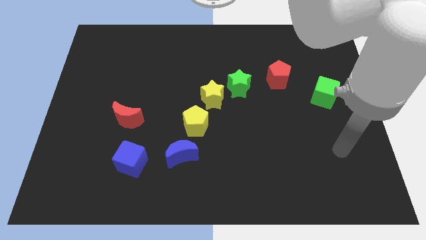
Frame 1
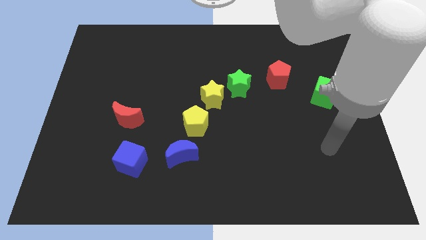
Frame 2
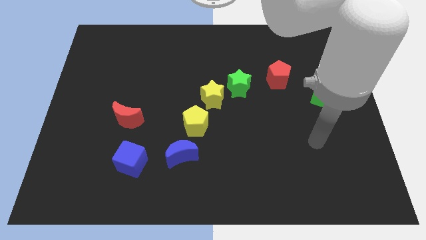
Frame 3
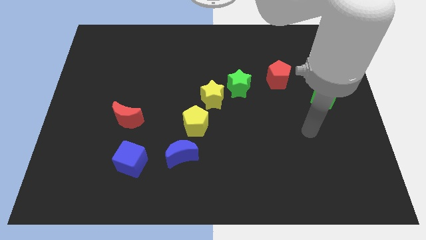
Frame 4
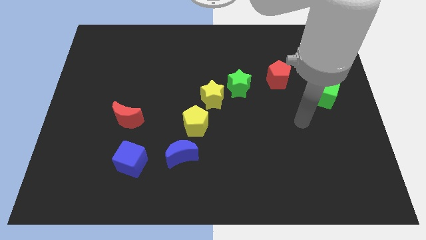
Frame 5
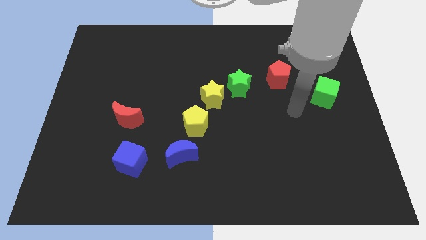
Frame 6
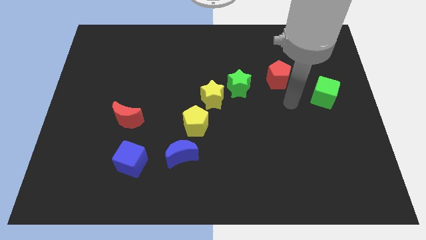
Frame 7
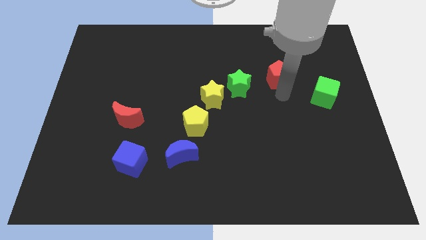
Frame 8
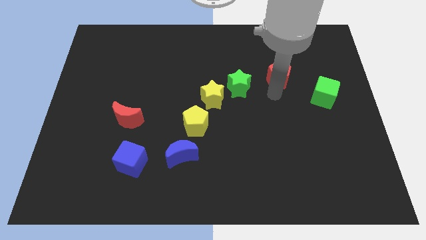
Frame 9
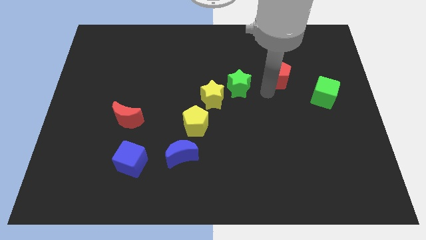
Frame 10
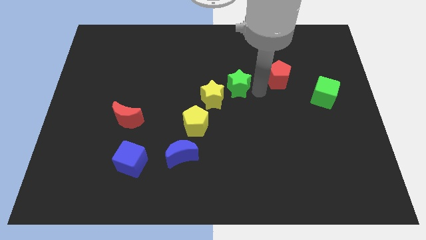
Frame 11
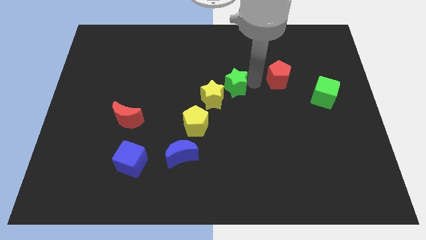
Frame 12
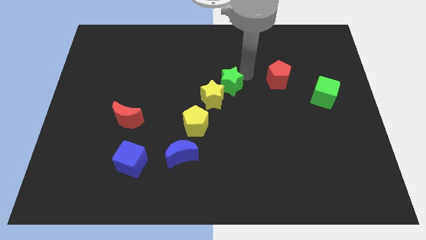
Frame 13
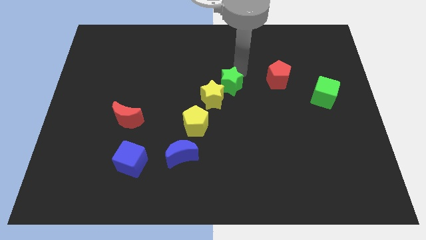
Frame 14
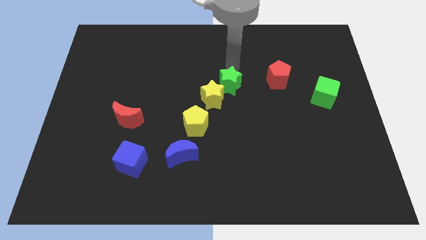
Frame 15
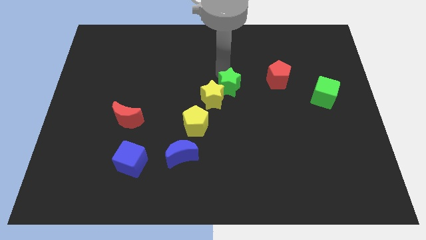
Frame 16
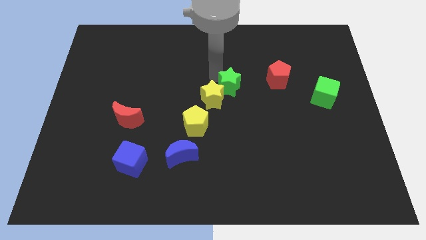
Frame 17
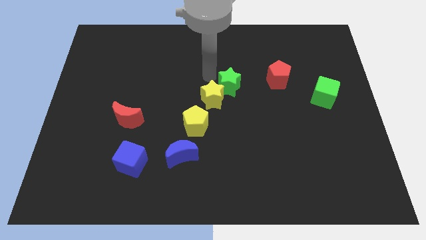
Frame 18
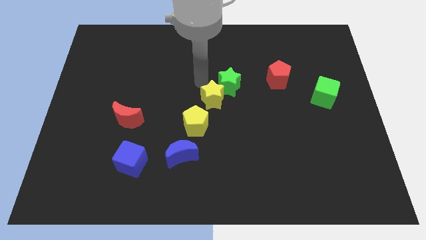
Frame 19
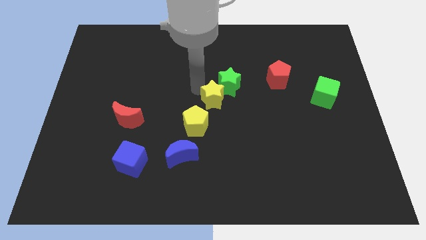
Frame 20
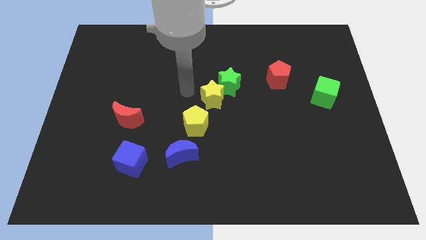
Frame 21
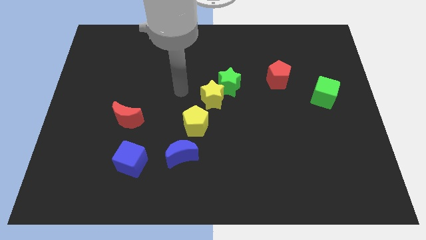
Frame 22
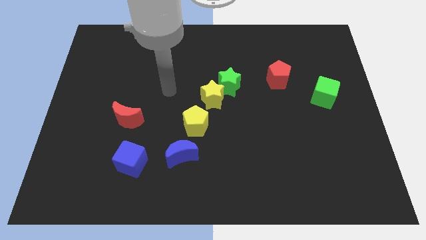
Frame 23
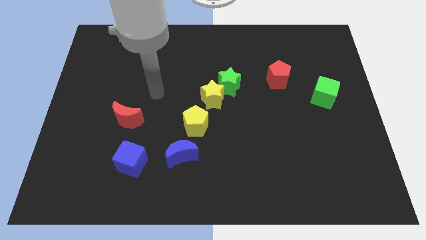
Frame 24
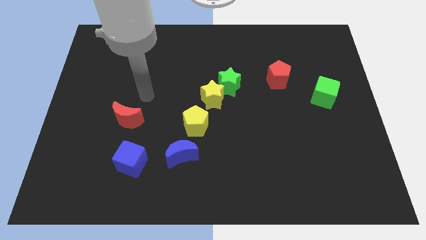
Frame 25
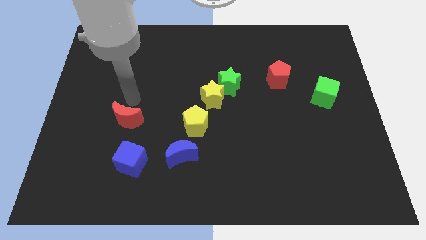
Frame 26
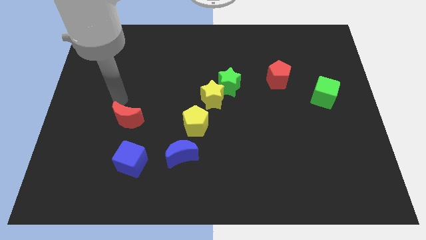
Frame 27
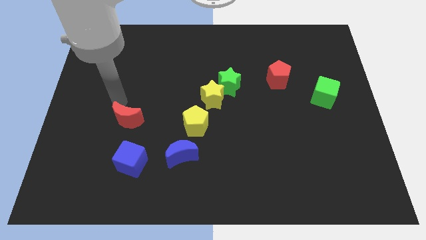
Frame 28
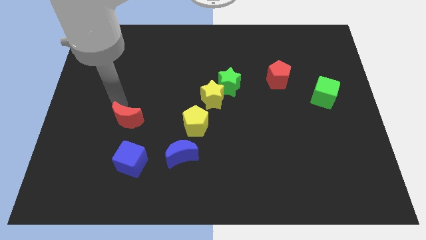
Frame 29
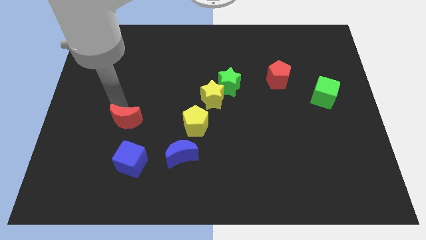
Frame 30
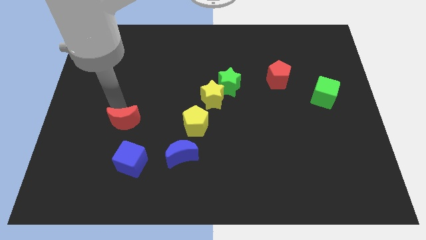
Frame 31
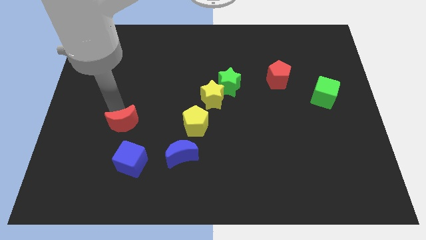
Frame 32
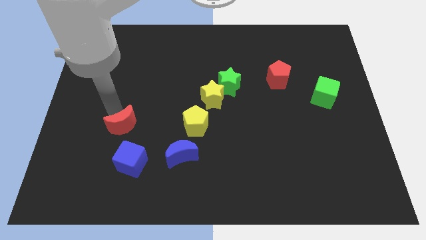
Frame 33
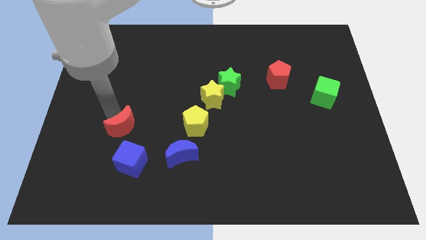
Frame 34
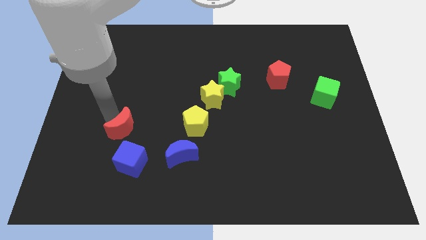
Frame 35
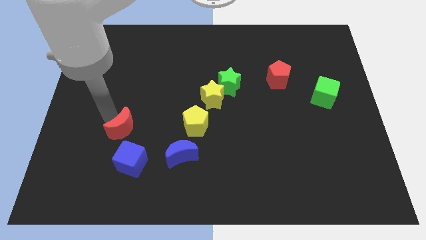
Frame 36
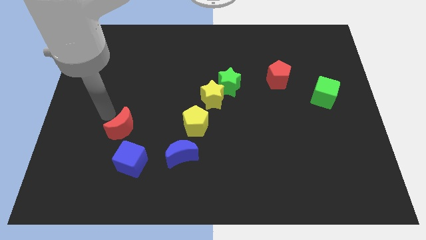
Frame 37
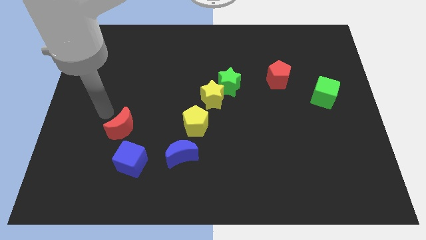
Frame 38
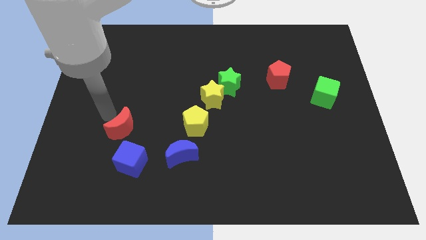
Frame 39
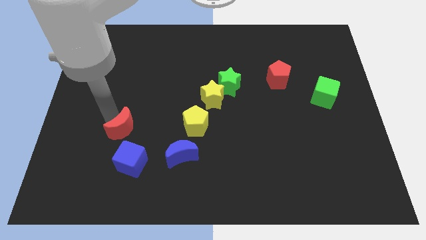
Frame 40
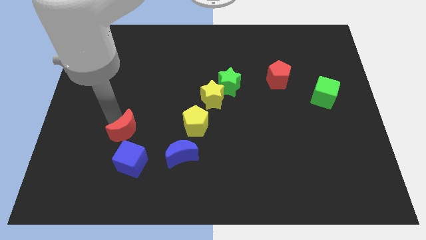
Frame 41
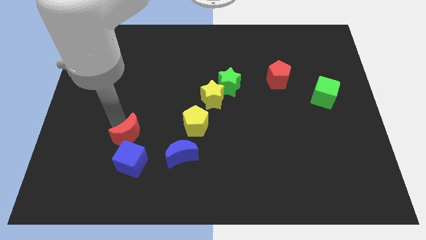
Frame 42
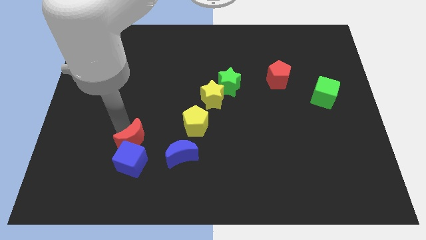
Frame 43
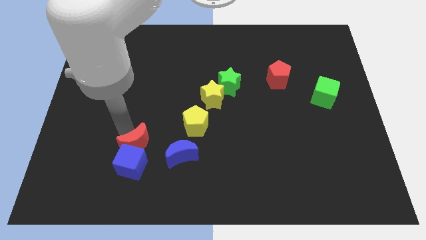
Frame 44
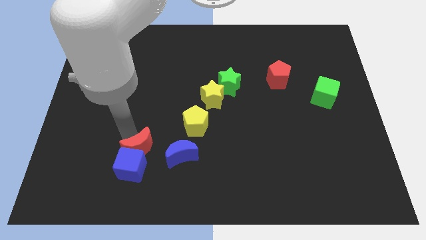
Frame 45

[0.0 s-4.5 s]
move the red moon downwards and to the right diagonally a little bit

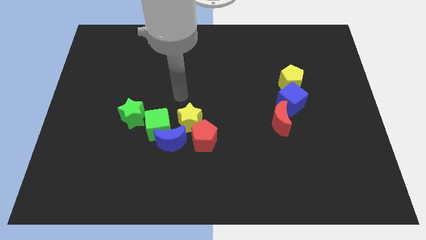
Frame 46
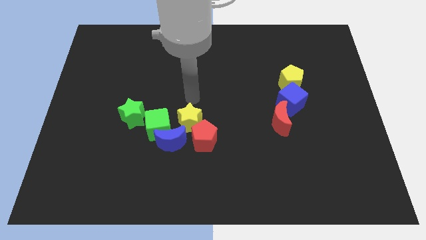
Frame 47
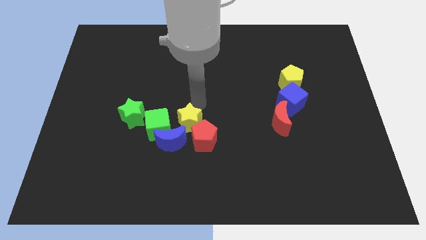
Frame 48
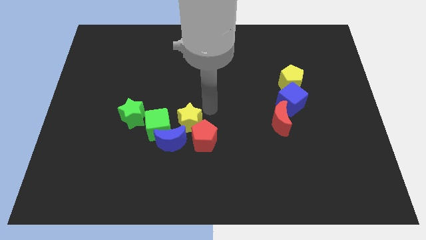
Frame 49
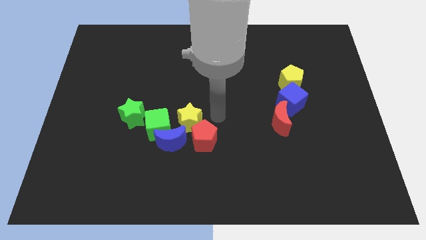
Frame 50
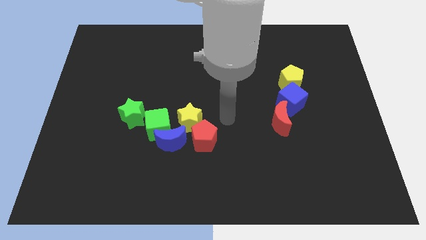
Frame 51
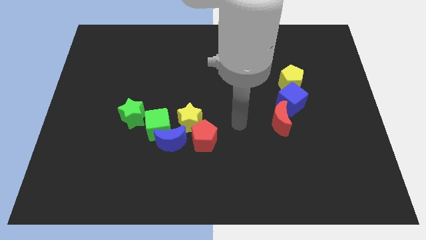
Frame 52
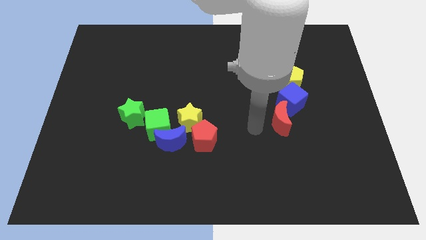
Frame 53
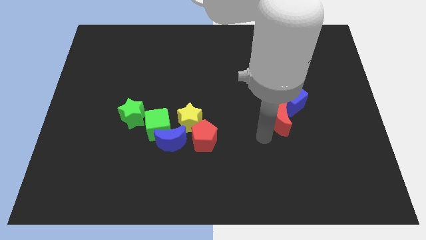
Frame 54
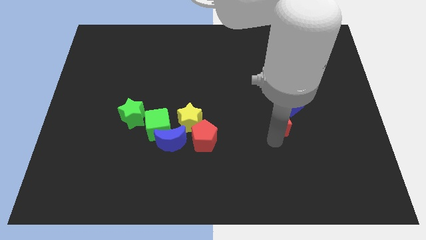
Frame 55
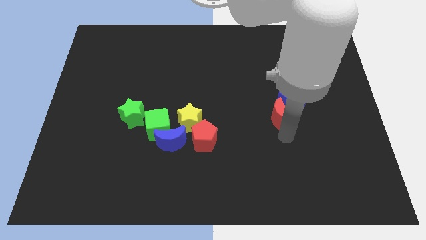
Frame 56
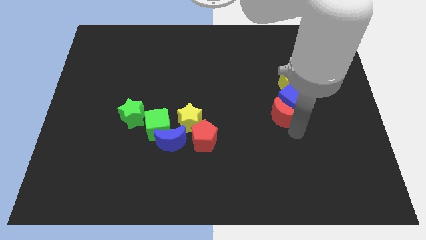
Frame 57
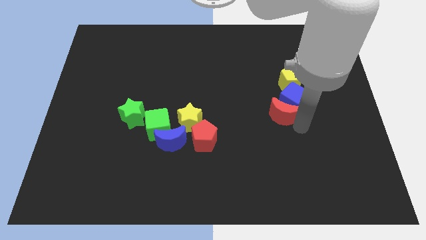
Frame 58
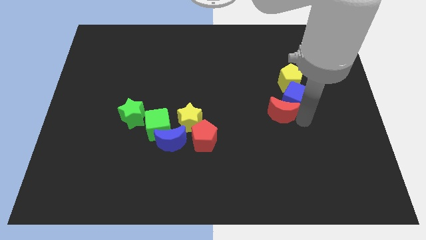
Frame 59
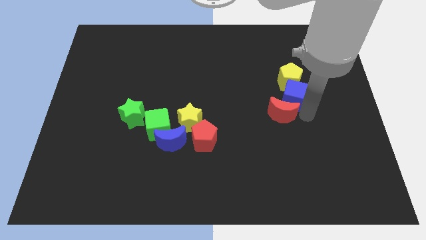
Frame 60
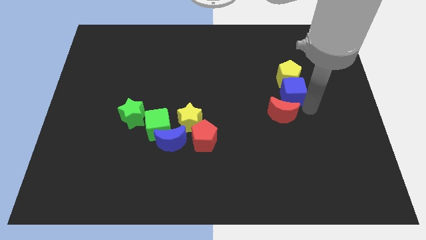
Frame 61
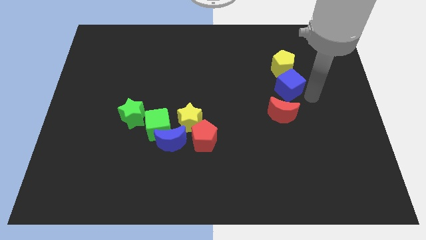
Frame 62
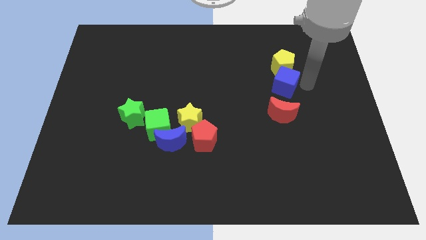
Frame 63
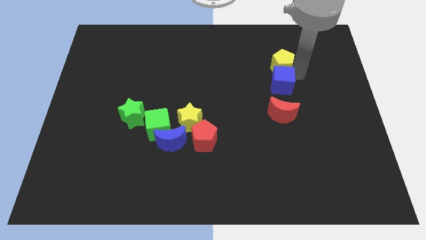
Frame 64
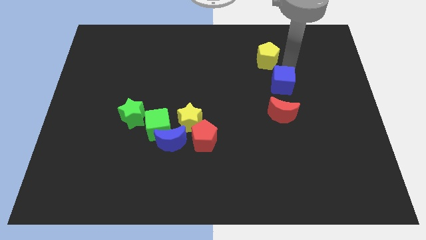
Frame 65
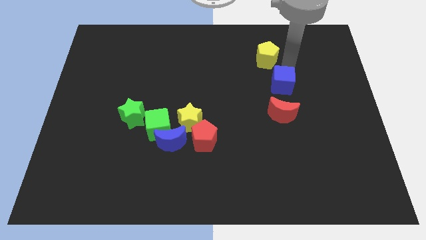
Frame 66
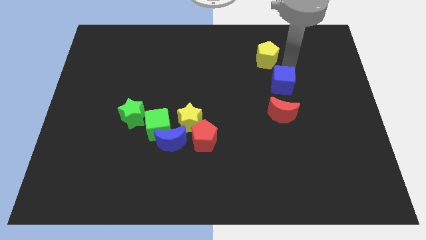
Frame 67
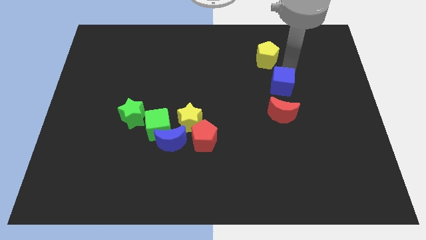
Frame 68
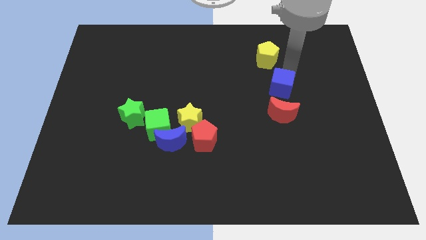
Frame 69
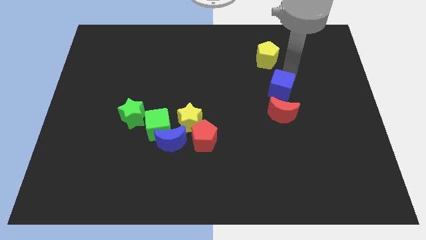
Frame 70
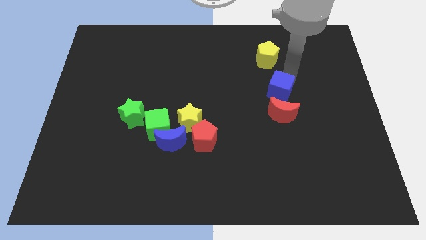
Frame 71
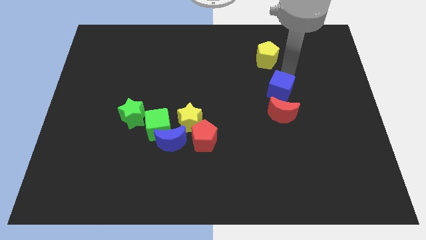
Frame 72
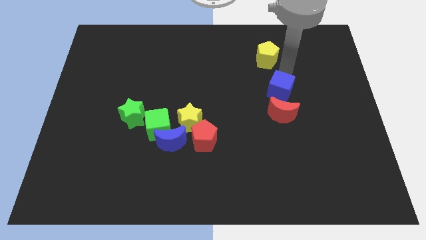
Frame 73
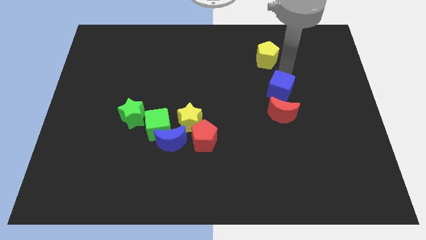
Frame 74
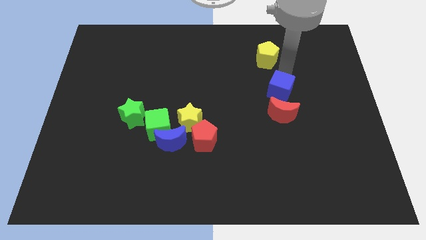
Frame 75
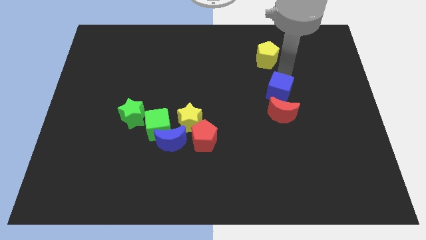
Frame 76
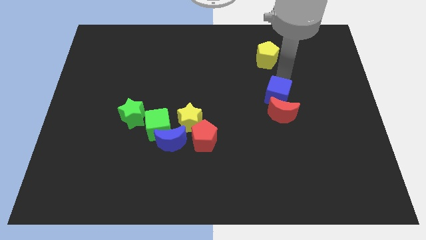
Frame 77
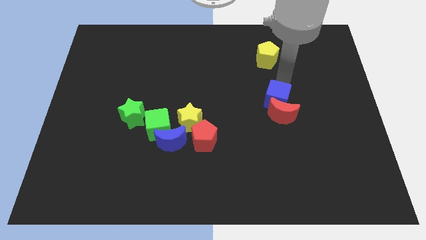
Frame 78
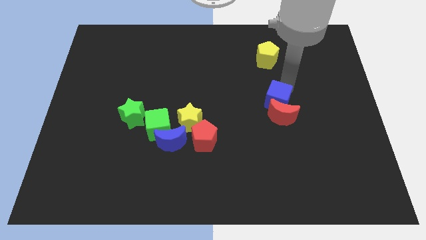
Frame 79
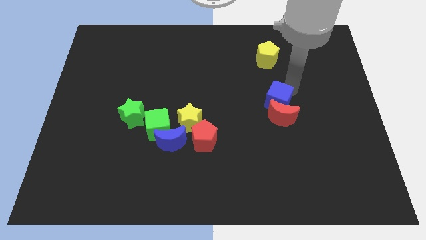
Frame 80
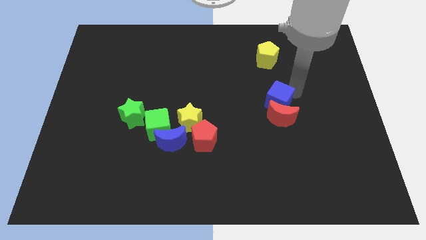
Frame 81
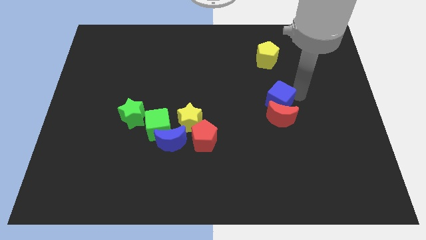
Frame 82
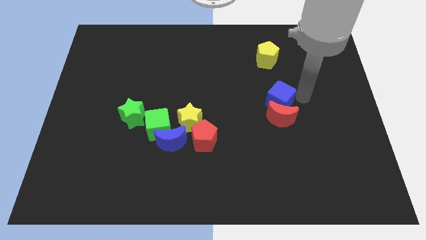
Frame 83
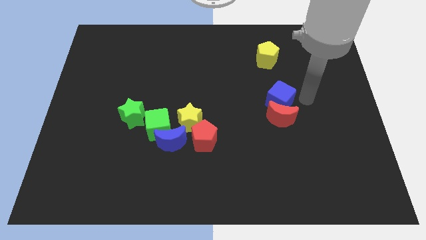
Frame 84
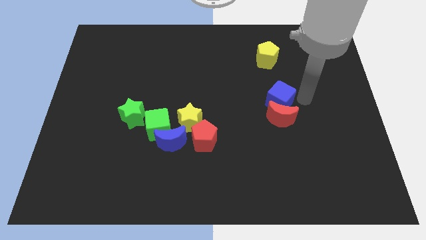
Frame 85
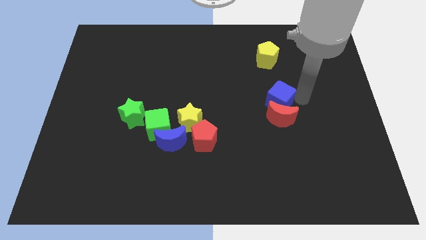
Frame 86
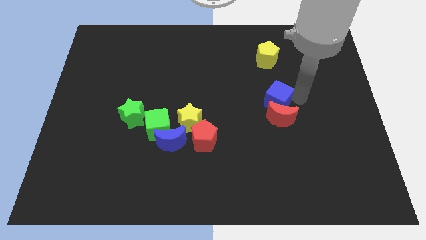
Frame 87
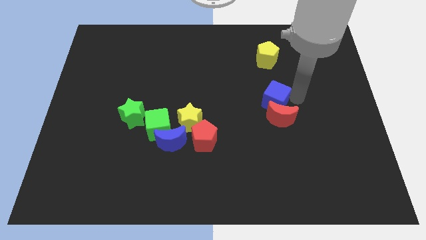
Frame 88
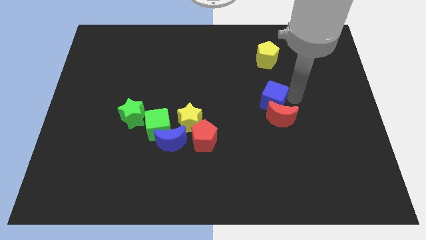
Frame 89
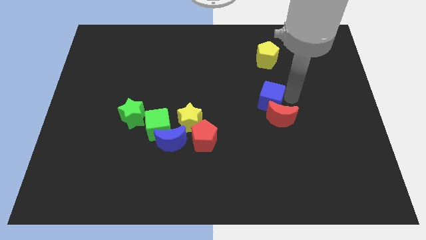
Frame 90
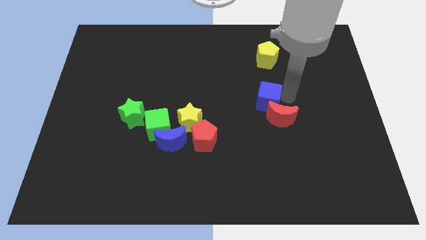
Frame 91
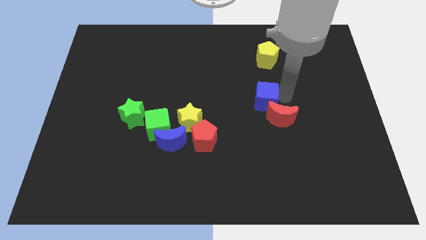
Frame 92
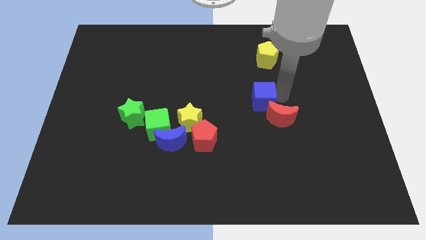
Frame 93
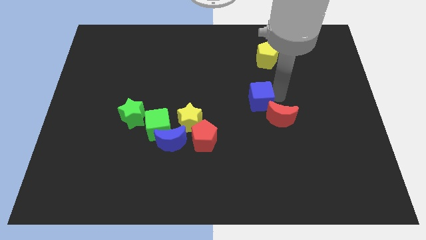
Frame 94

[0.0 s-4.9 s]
move the blue cube slightly left
